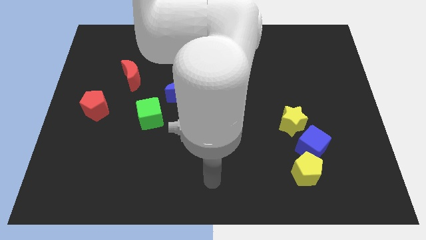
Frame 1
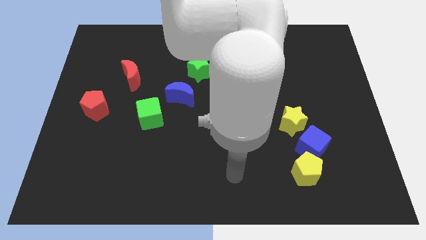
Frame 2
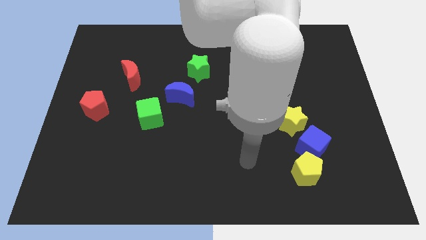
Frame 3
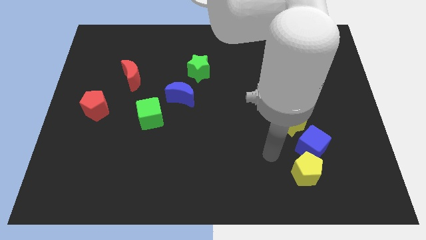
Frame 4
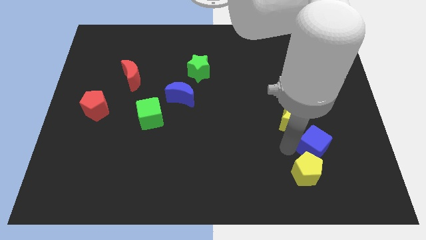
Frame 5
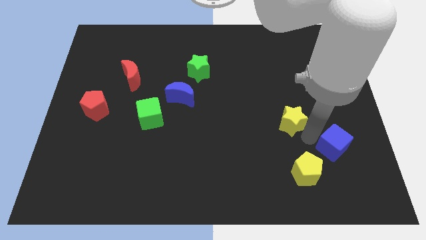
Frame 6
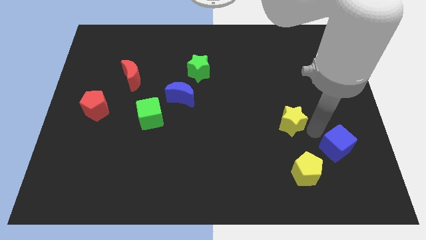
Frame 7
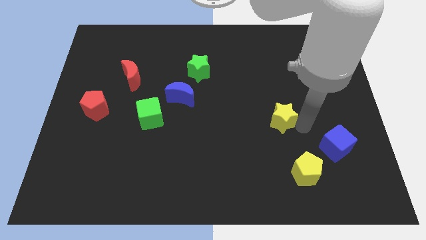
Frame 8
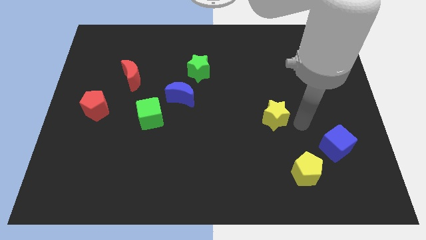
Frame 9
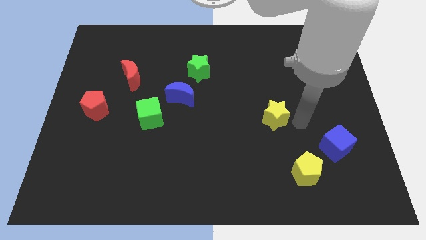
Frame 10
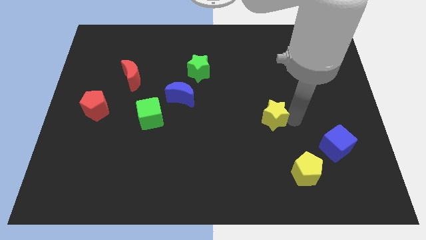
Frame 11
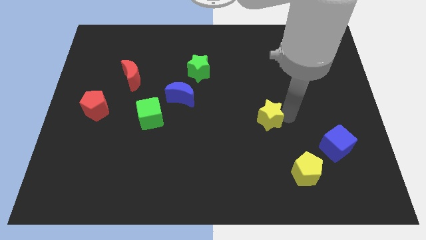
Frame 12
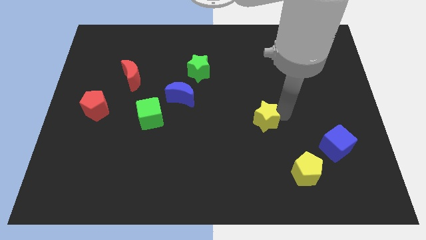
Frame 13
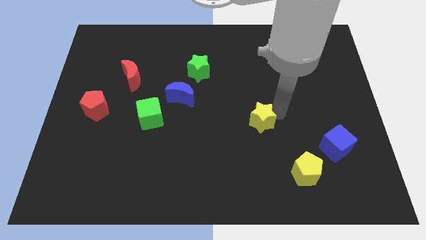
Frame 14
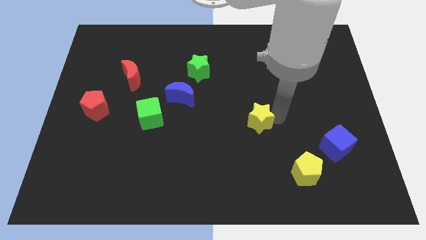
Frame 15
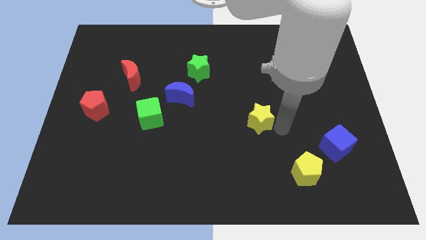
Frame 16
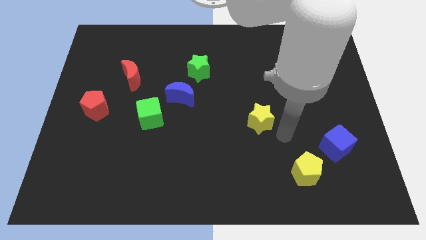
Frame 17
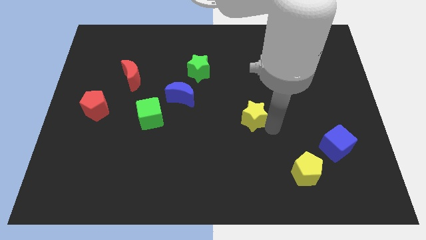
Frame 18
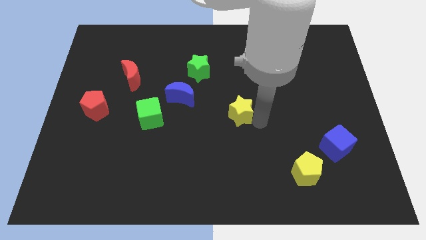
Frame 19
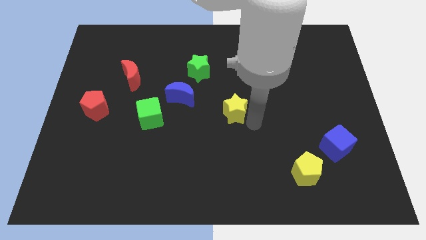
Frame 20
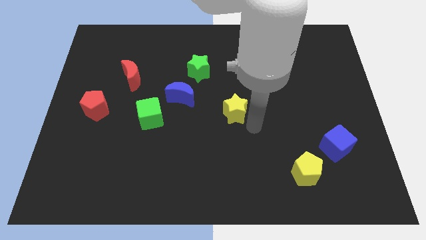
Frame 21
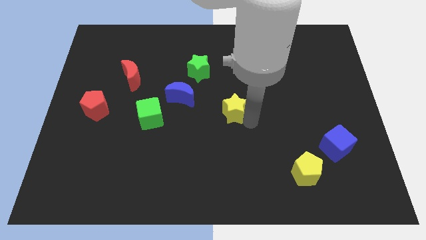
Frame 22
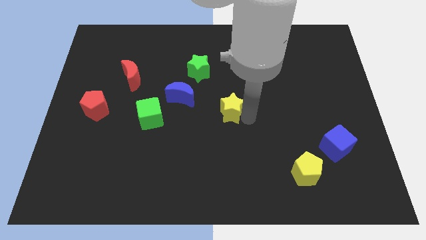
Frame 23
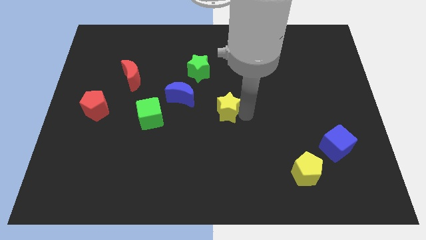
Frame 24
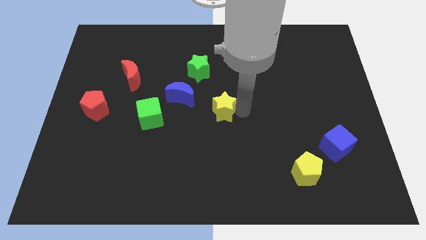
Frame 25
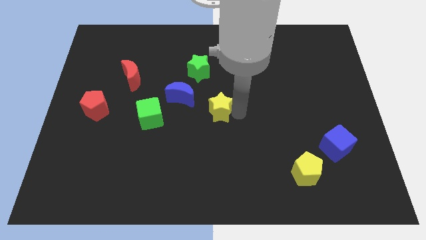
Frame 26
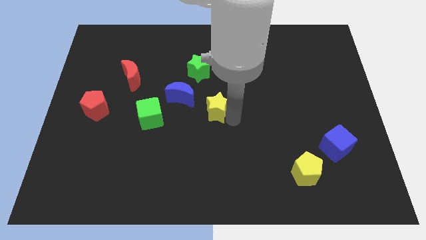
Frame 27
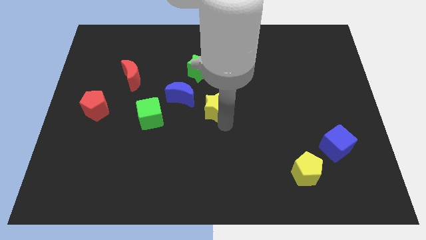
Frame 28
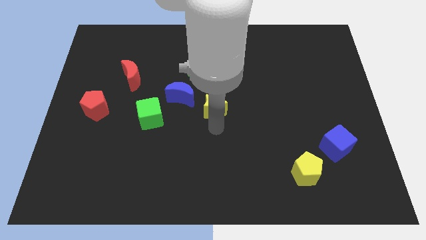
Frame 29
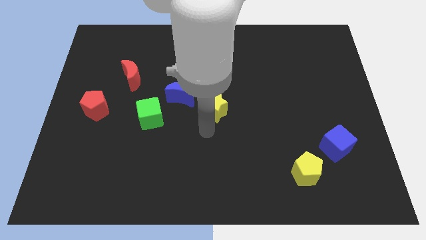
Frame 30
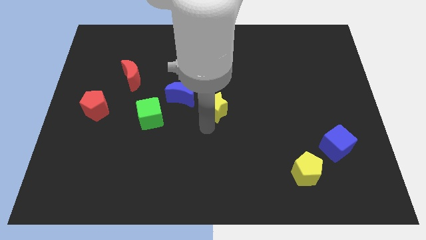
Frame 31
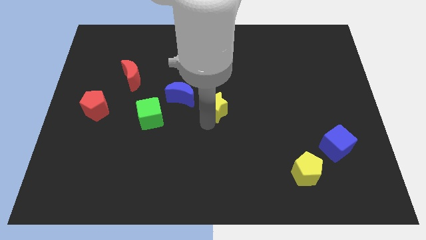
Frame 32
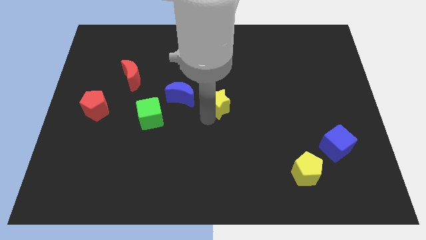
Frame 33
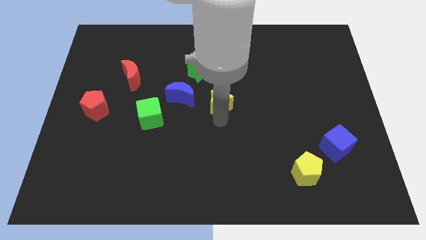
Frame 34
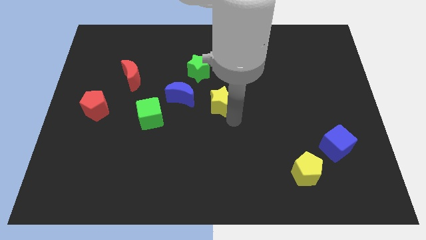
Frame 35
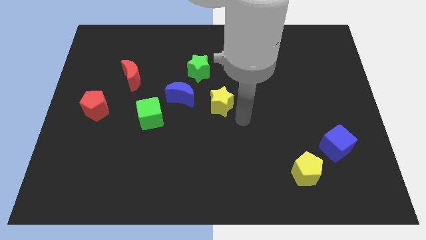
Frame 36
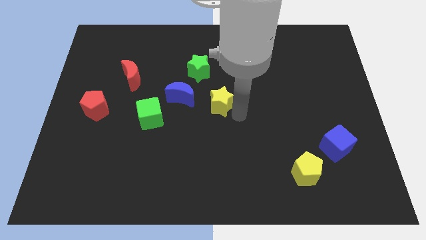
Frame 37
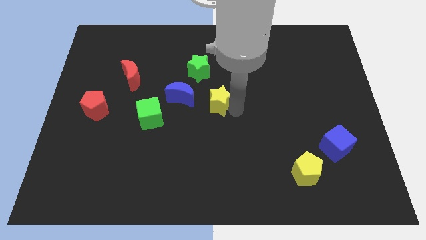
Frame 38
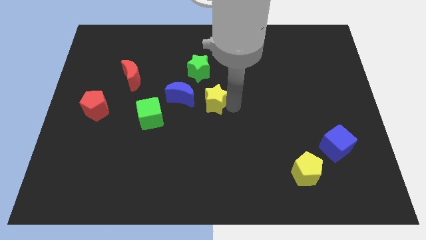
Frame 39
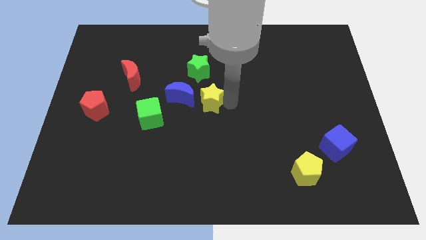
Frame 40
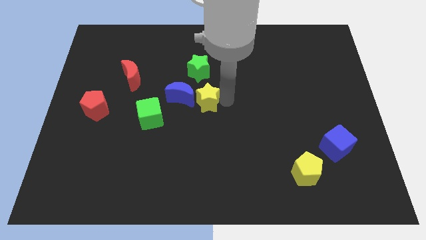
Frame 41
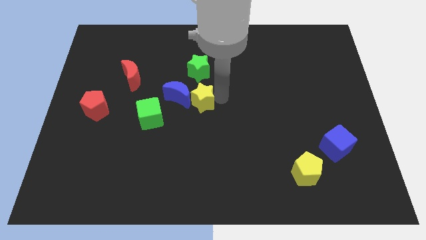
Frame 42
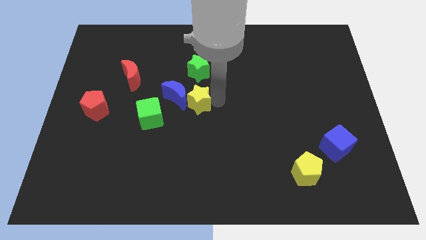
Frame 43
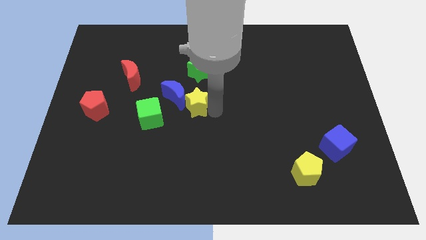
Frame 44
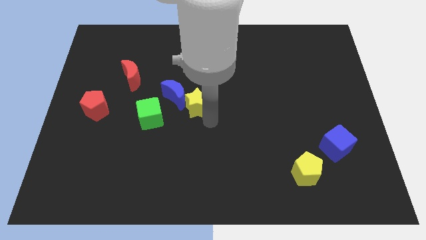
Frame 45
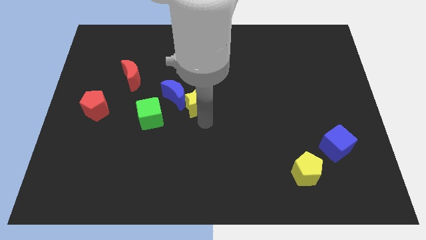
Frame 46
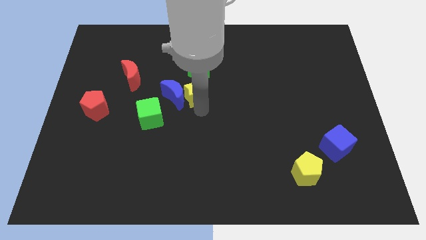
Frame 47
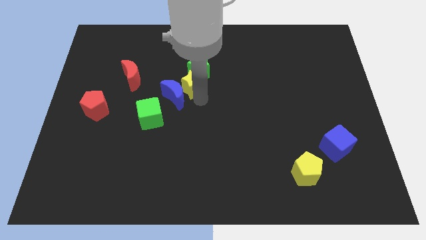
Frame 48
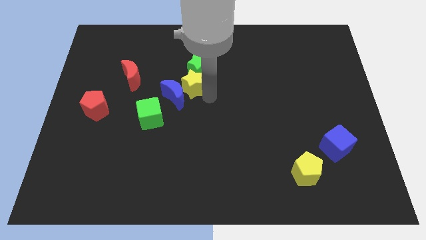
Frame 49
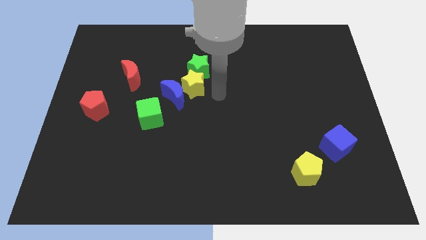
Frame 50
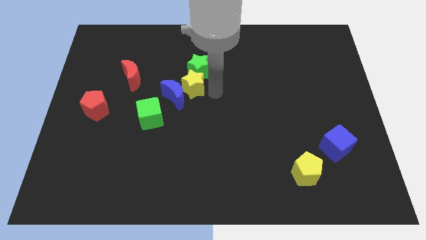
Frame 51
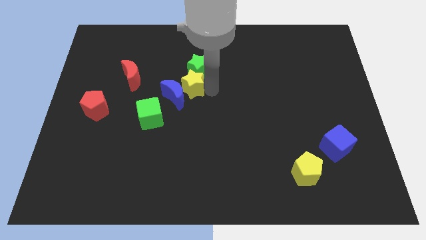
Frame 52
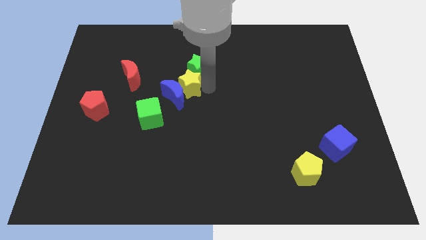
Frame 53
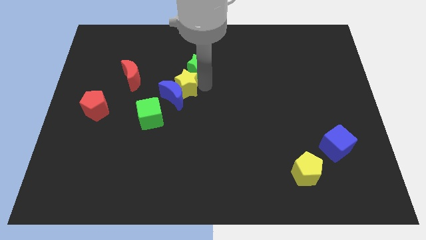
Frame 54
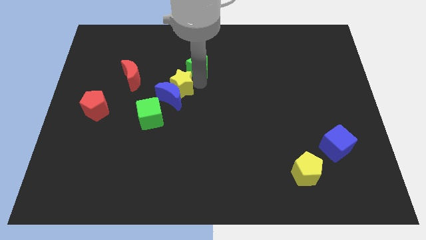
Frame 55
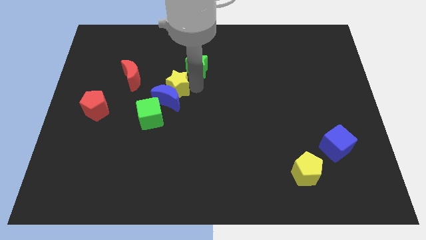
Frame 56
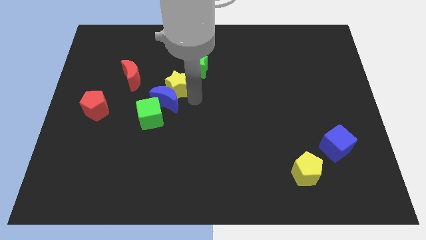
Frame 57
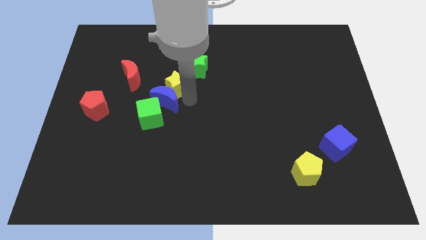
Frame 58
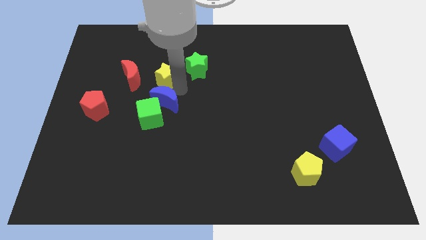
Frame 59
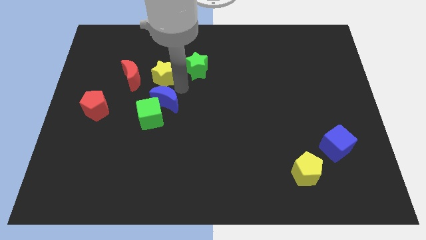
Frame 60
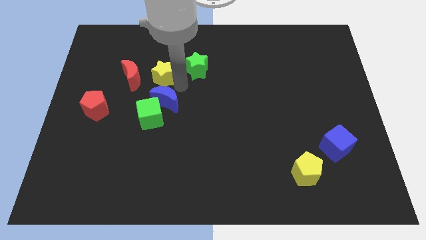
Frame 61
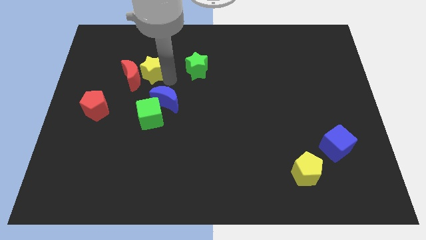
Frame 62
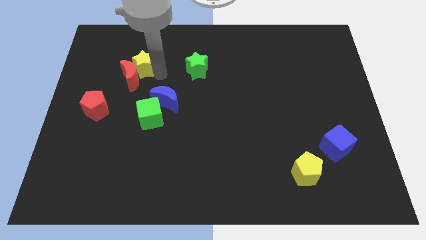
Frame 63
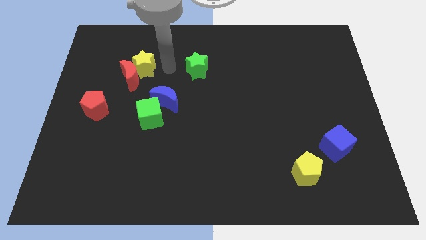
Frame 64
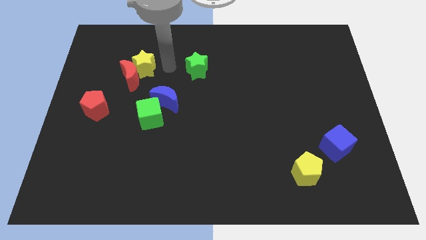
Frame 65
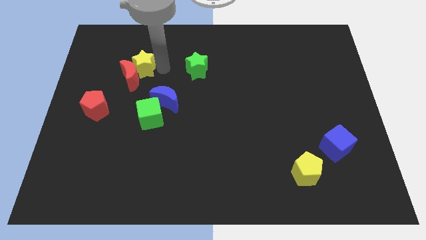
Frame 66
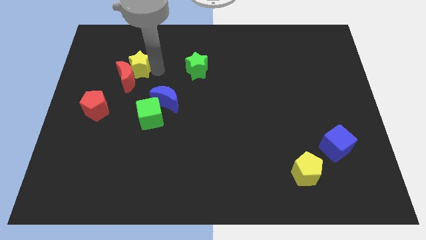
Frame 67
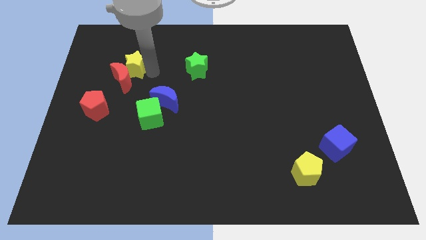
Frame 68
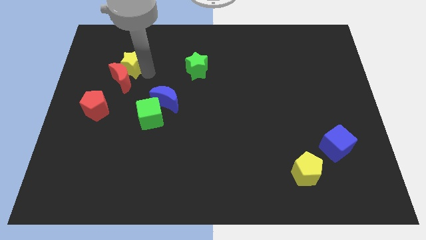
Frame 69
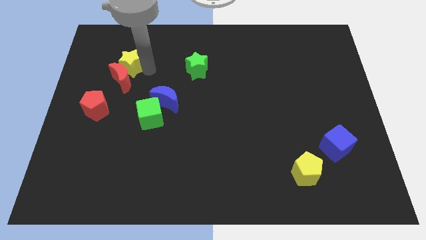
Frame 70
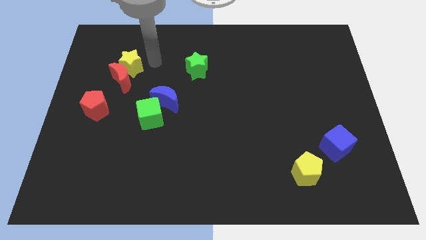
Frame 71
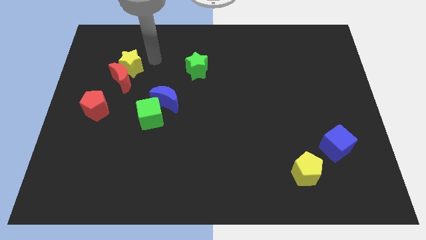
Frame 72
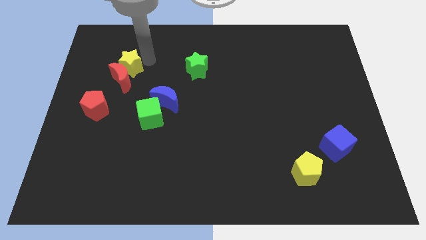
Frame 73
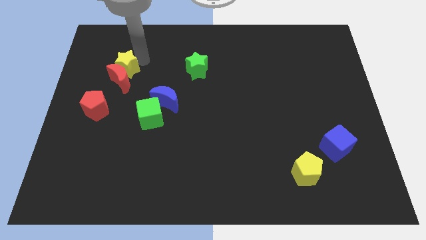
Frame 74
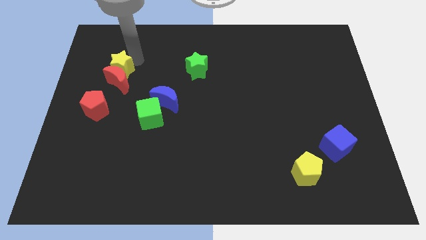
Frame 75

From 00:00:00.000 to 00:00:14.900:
put the yellow star above the red pentagon
